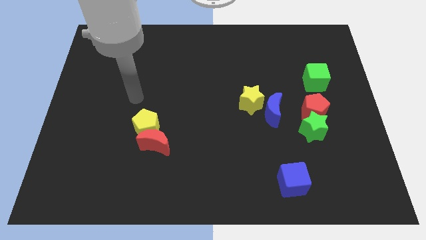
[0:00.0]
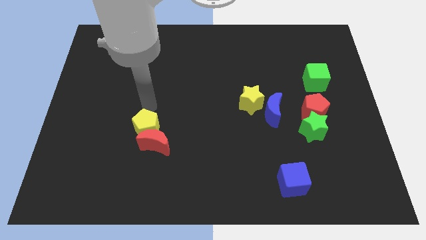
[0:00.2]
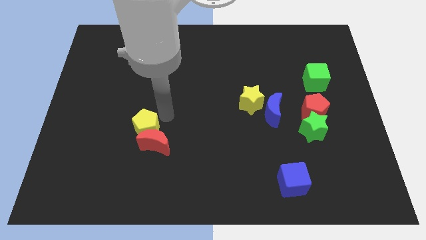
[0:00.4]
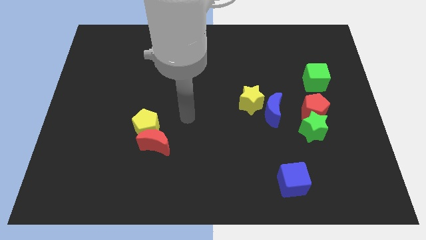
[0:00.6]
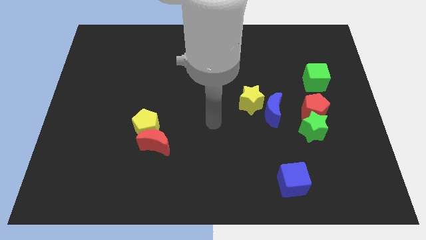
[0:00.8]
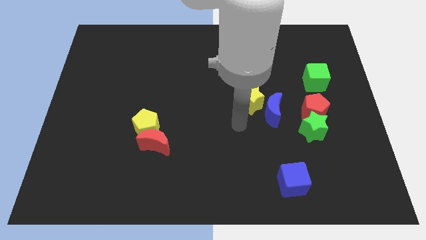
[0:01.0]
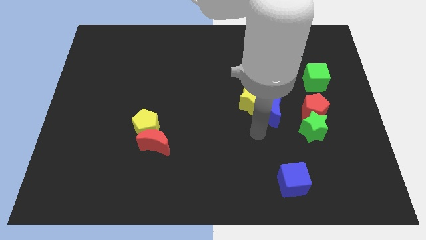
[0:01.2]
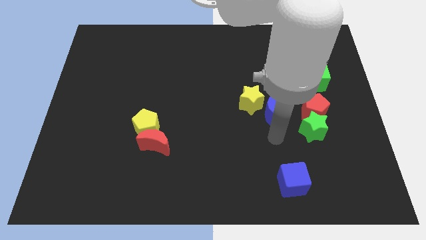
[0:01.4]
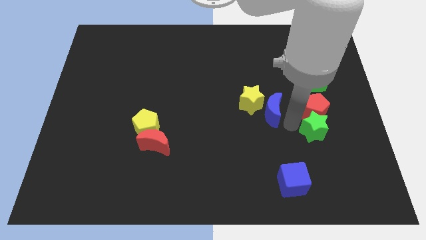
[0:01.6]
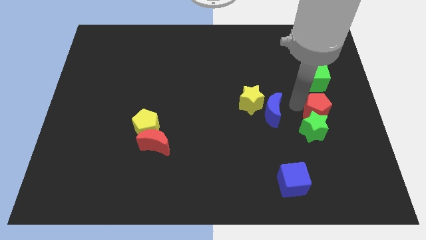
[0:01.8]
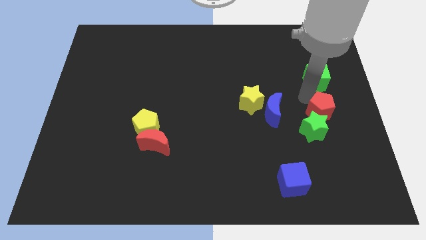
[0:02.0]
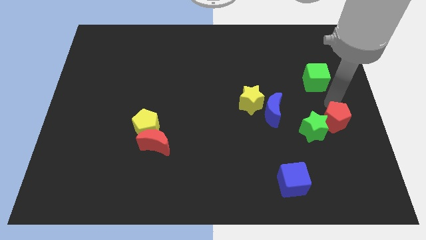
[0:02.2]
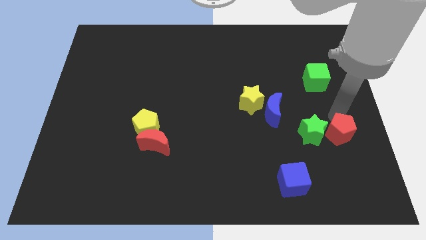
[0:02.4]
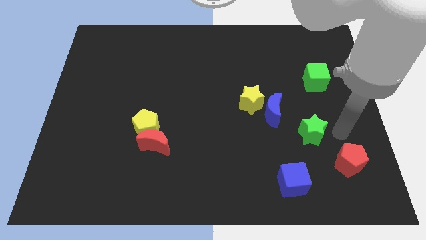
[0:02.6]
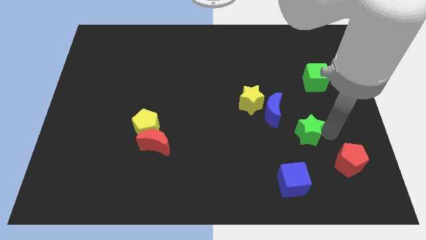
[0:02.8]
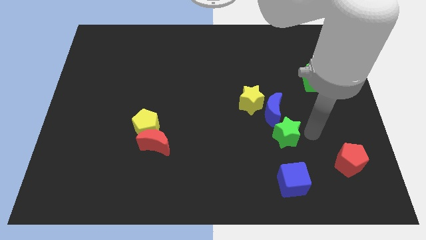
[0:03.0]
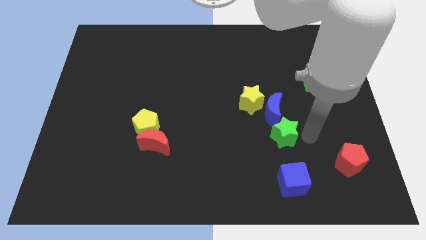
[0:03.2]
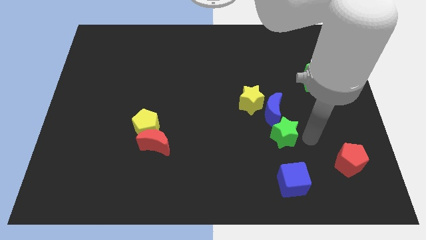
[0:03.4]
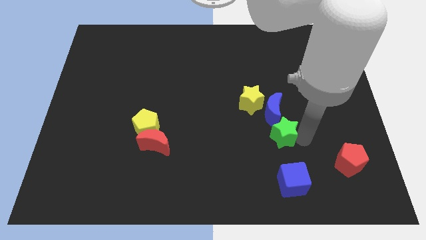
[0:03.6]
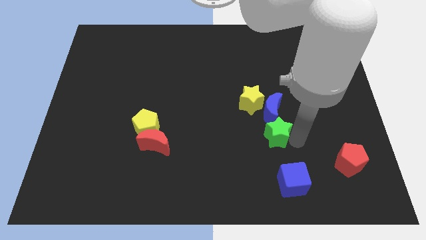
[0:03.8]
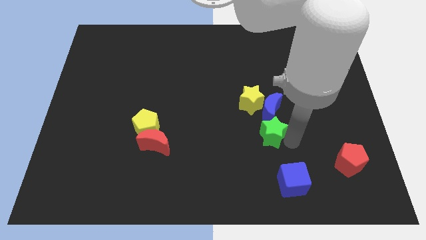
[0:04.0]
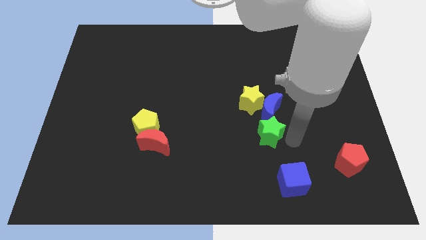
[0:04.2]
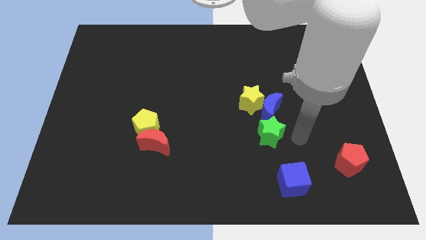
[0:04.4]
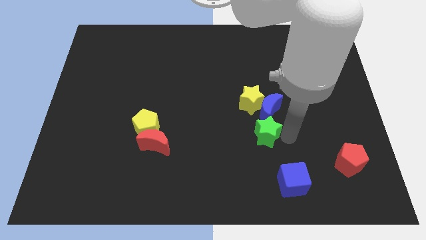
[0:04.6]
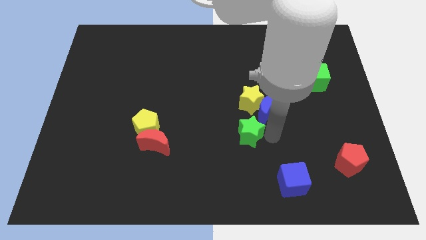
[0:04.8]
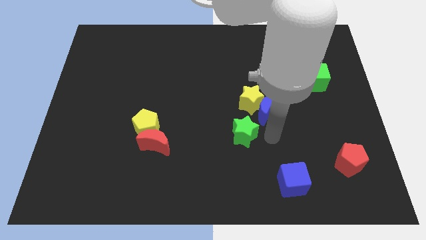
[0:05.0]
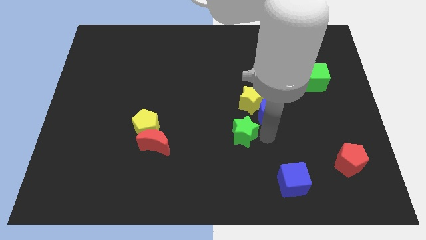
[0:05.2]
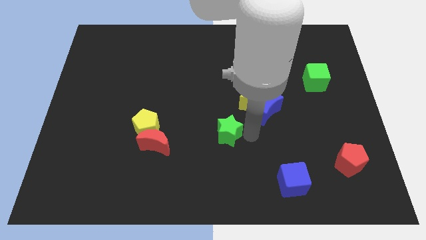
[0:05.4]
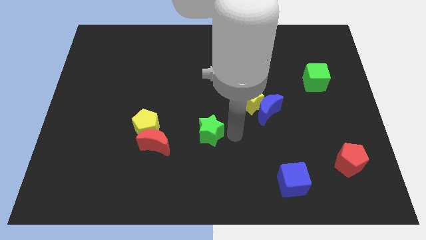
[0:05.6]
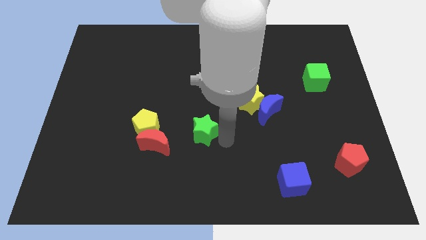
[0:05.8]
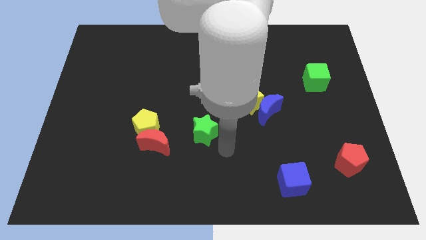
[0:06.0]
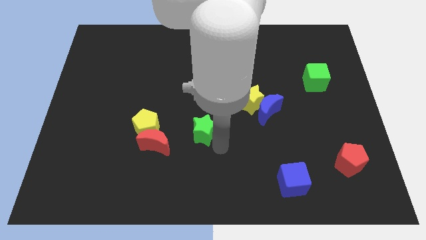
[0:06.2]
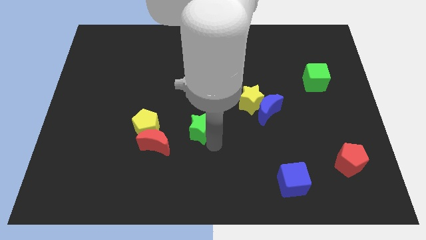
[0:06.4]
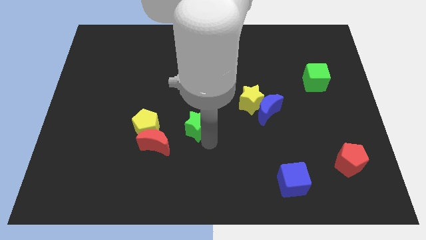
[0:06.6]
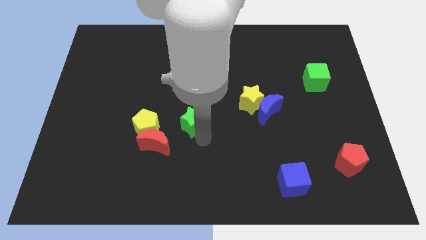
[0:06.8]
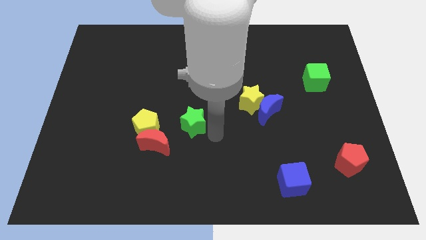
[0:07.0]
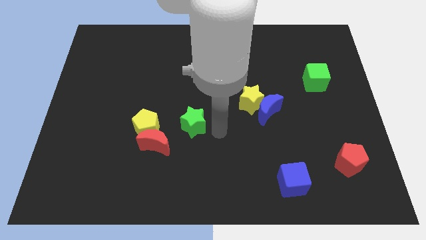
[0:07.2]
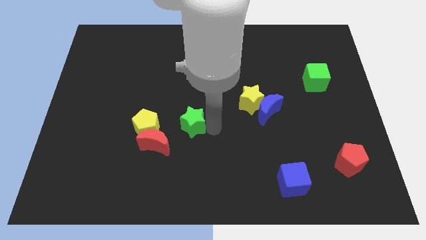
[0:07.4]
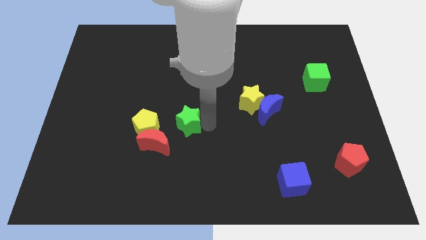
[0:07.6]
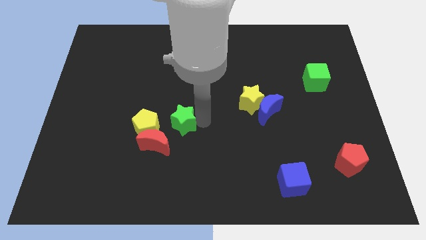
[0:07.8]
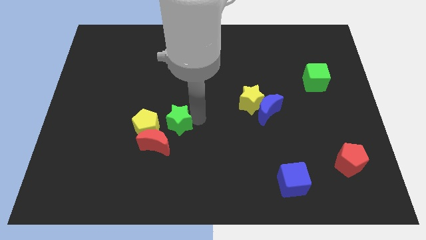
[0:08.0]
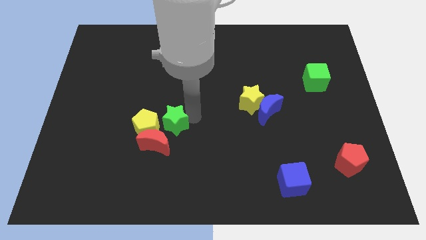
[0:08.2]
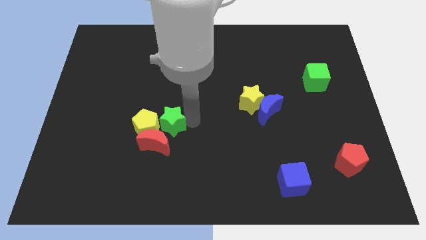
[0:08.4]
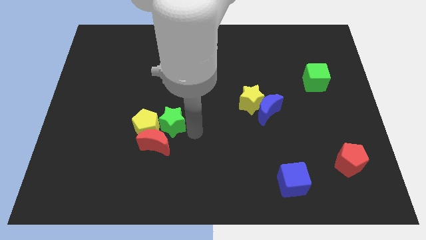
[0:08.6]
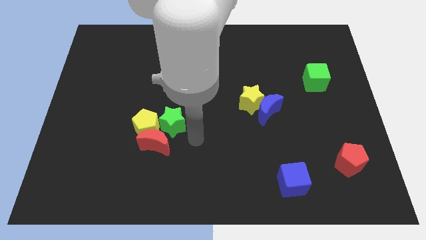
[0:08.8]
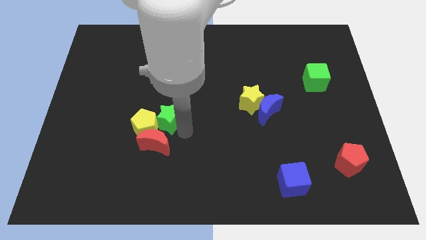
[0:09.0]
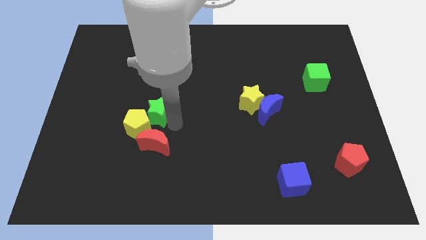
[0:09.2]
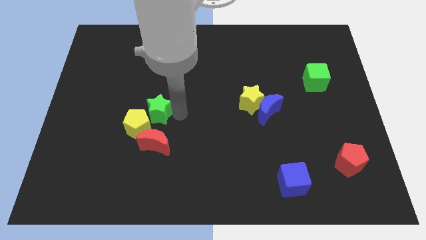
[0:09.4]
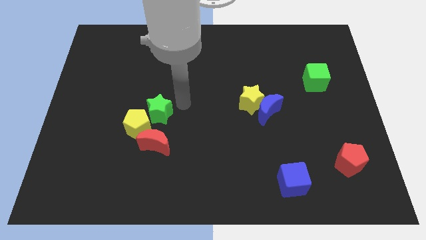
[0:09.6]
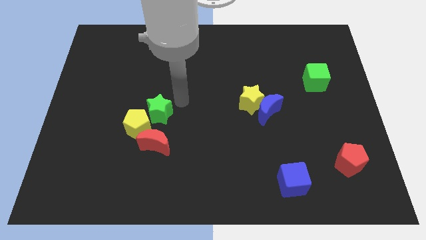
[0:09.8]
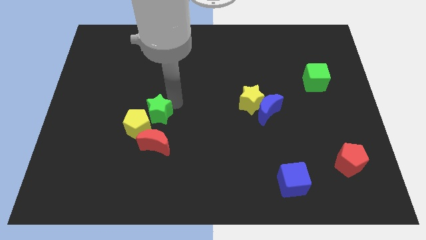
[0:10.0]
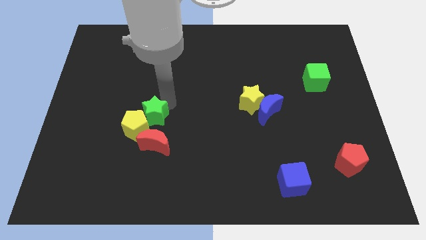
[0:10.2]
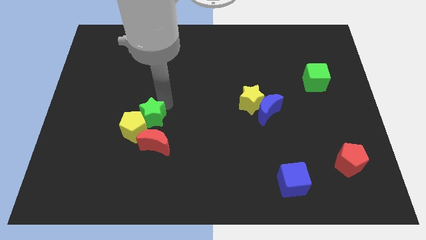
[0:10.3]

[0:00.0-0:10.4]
put the green star to the top left side of the red moon

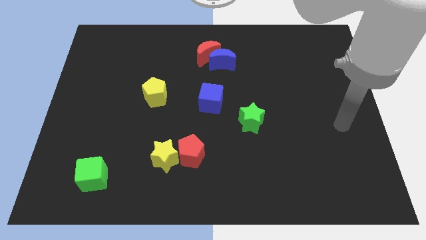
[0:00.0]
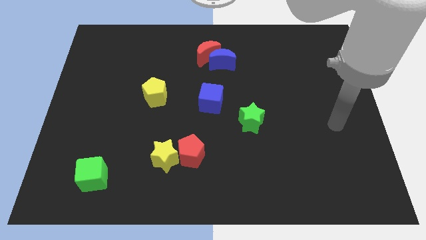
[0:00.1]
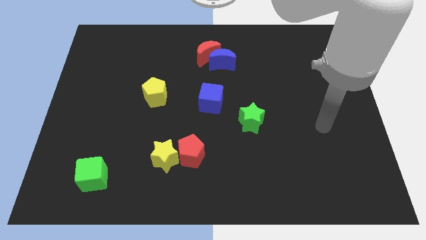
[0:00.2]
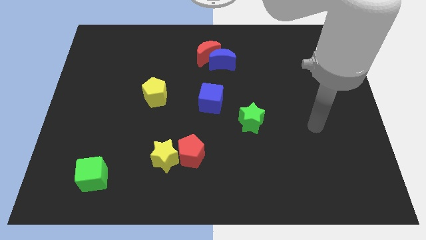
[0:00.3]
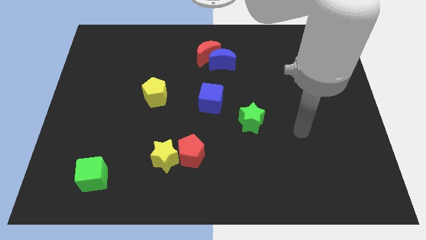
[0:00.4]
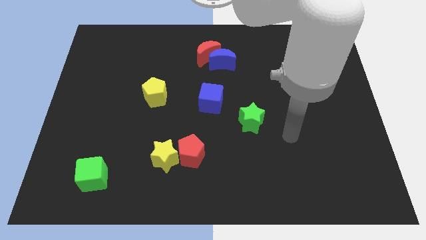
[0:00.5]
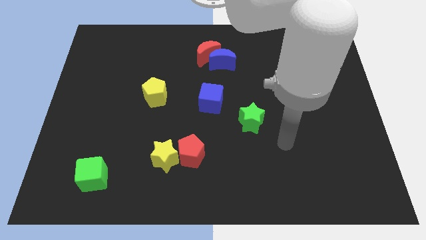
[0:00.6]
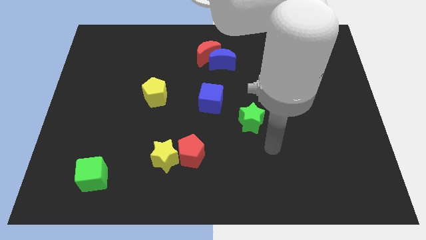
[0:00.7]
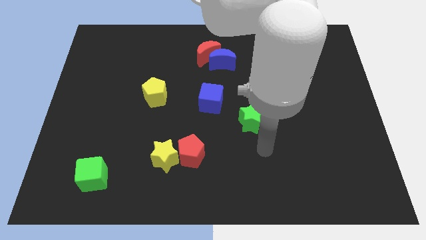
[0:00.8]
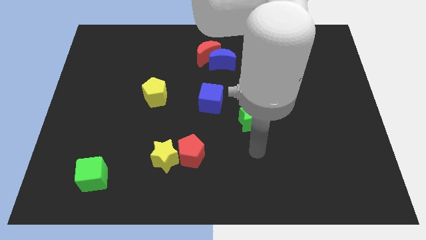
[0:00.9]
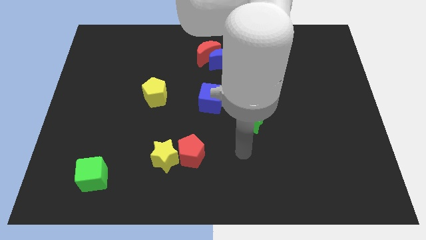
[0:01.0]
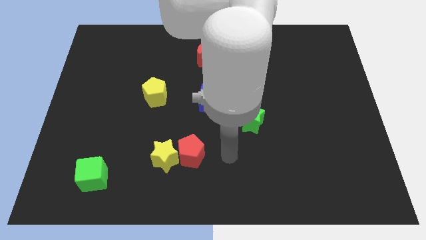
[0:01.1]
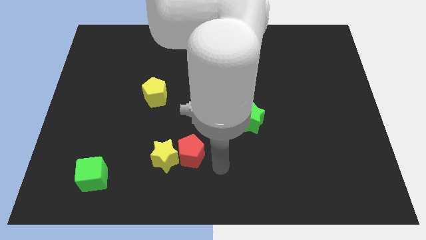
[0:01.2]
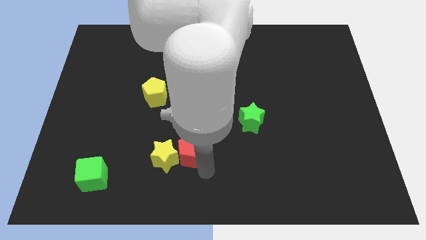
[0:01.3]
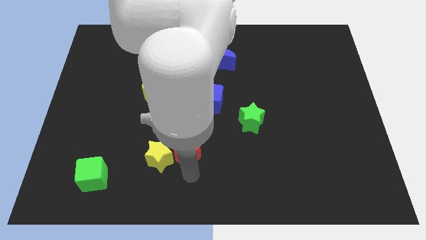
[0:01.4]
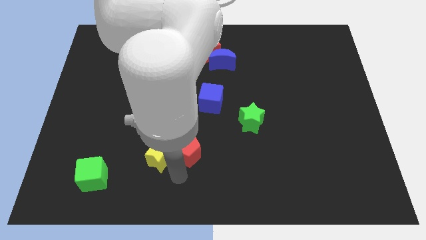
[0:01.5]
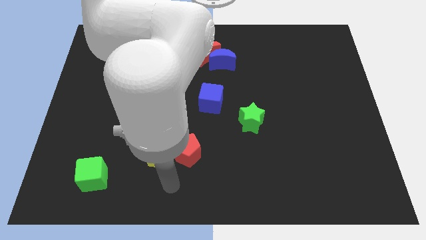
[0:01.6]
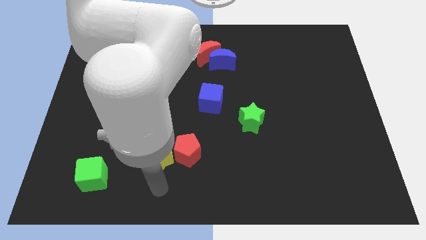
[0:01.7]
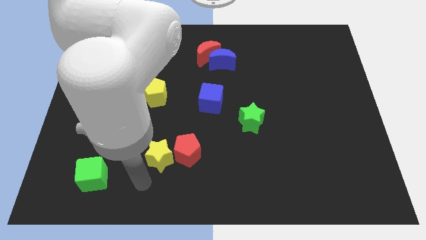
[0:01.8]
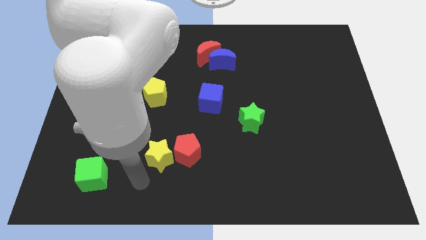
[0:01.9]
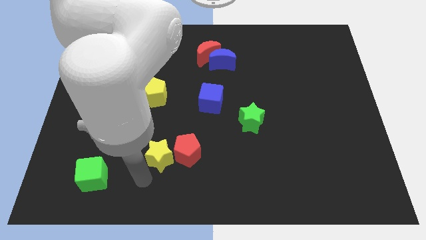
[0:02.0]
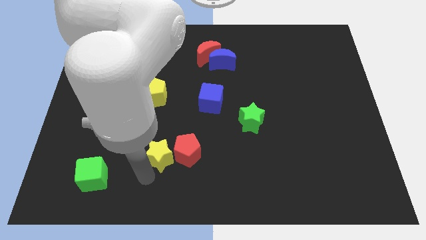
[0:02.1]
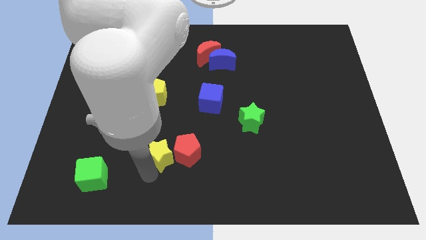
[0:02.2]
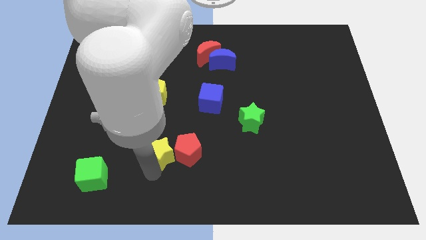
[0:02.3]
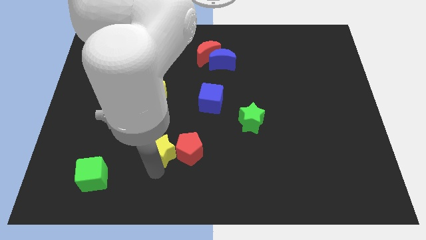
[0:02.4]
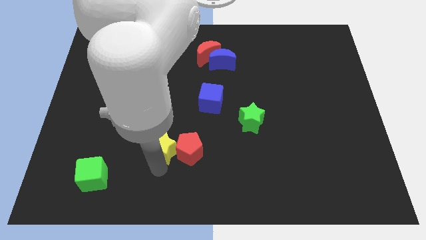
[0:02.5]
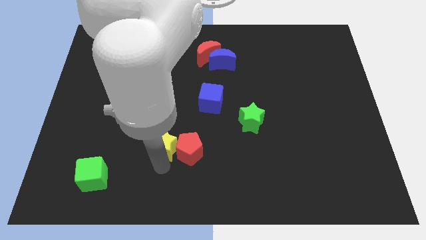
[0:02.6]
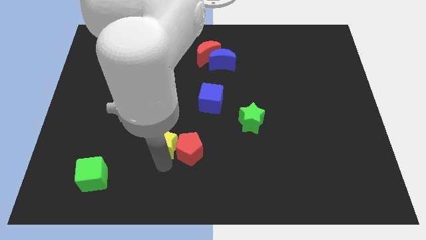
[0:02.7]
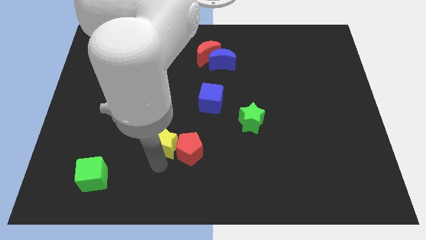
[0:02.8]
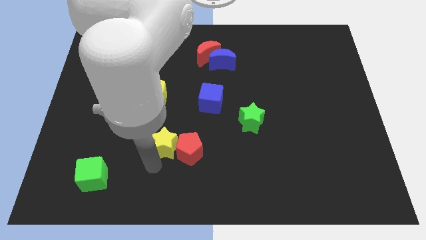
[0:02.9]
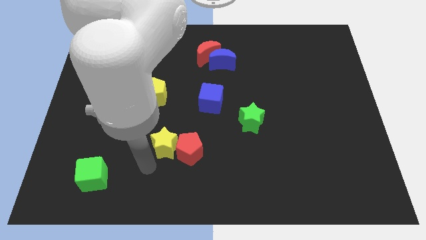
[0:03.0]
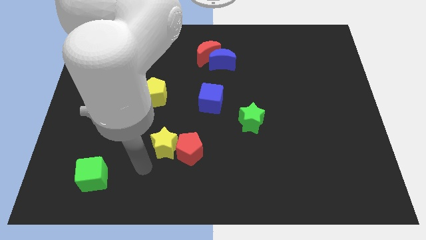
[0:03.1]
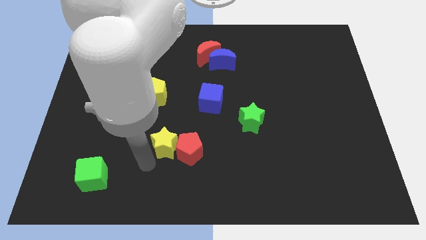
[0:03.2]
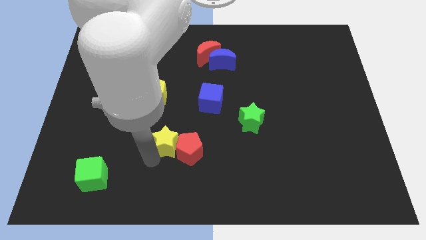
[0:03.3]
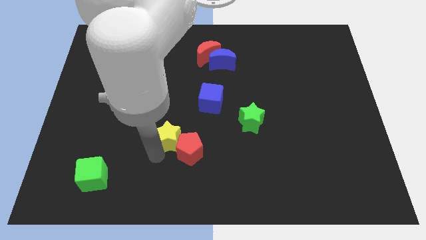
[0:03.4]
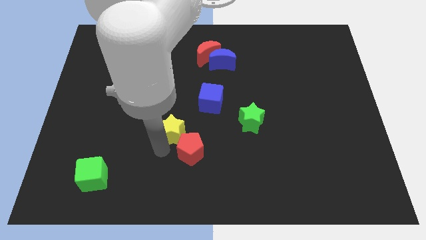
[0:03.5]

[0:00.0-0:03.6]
put the yellow star to the bottom left side of the blue cube
